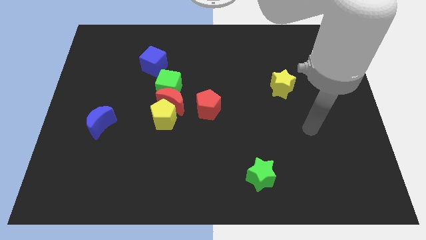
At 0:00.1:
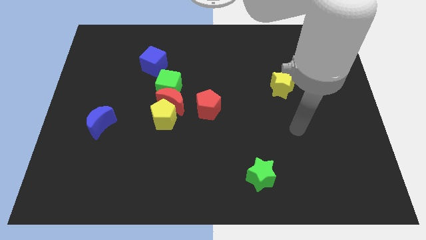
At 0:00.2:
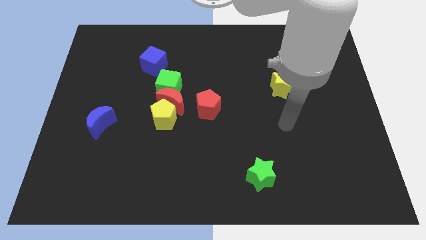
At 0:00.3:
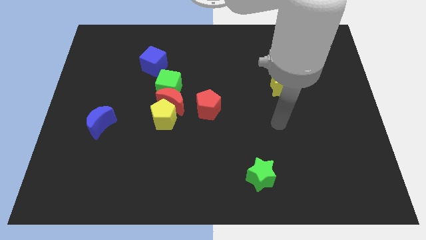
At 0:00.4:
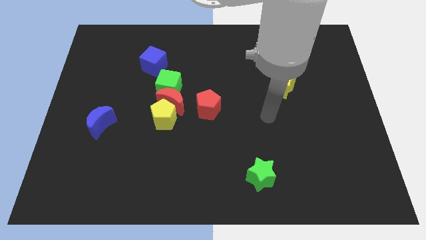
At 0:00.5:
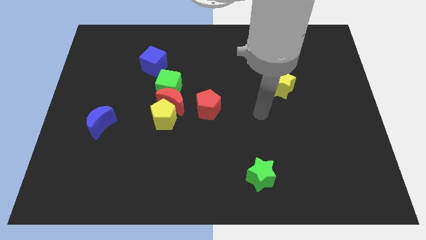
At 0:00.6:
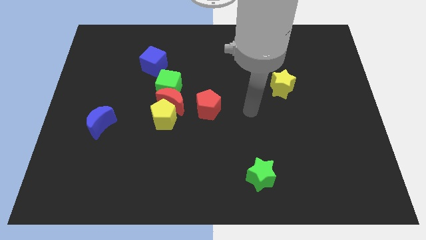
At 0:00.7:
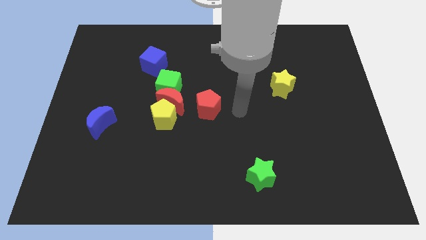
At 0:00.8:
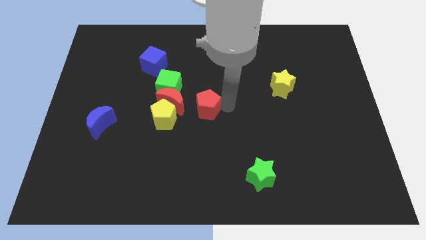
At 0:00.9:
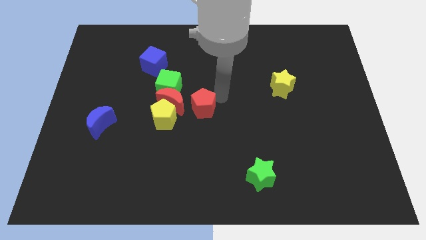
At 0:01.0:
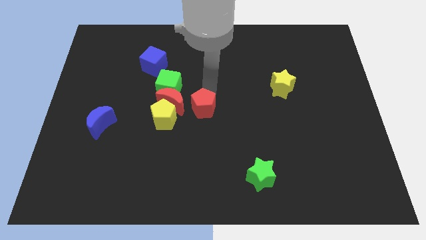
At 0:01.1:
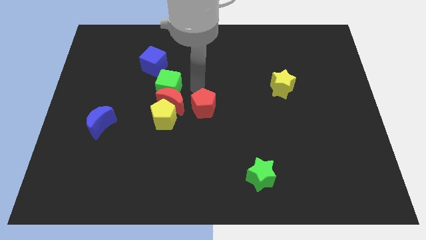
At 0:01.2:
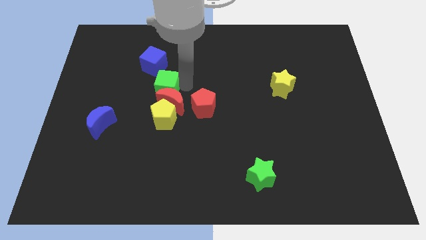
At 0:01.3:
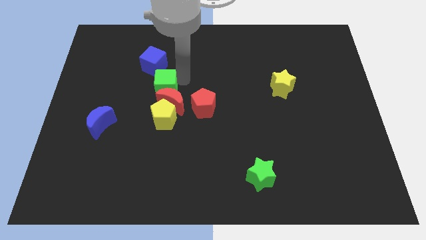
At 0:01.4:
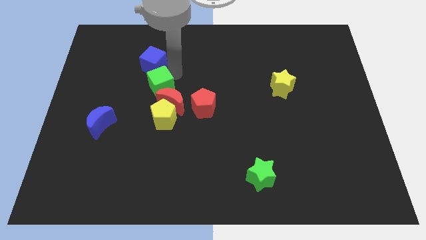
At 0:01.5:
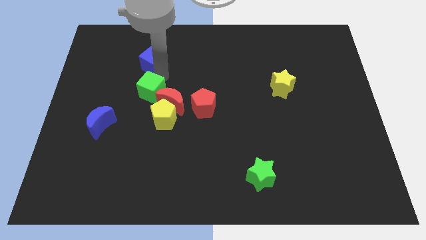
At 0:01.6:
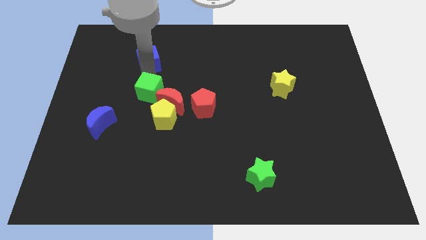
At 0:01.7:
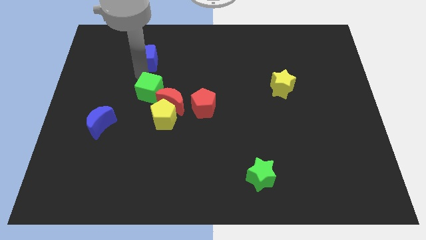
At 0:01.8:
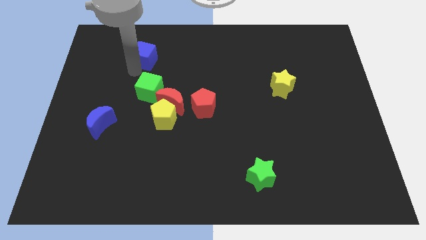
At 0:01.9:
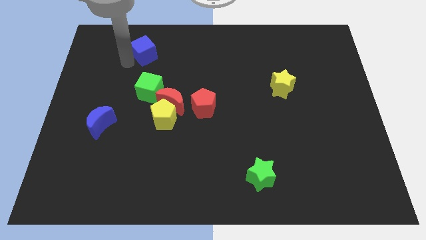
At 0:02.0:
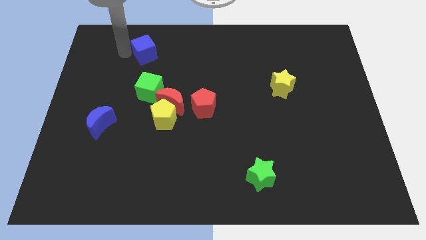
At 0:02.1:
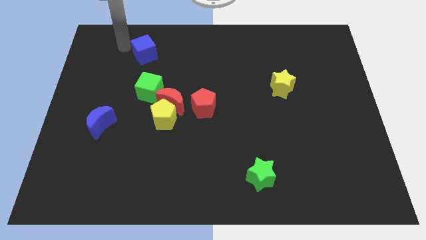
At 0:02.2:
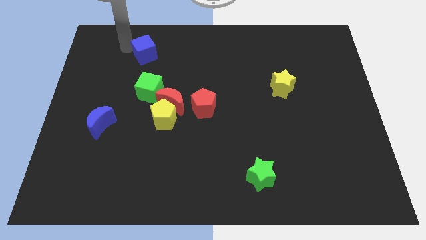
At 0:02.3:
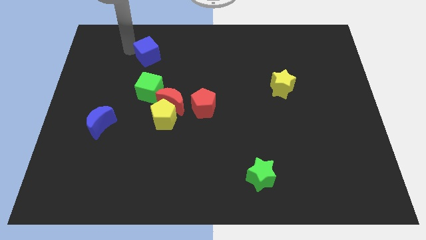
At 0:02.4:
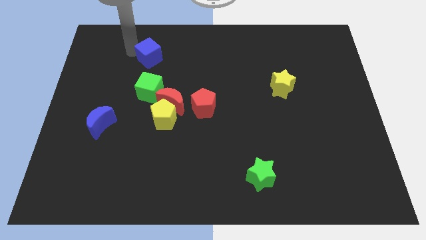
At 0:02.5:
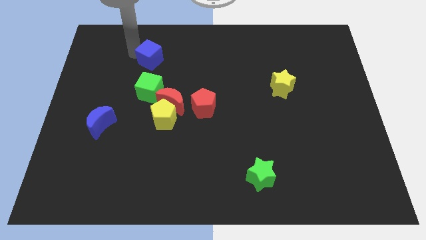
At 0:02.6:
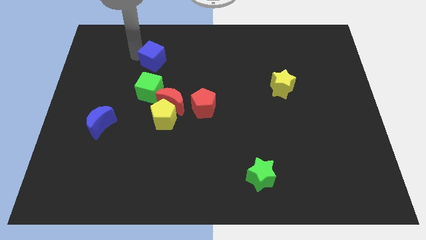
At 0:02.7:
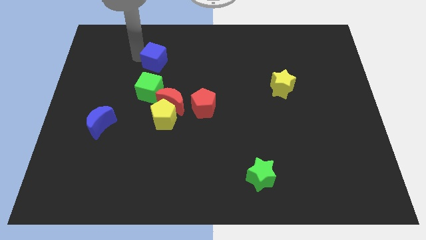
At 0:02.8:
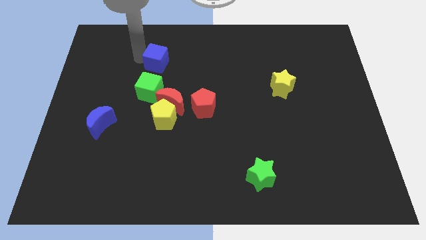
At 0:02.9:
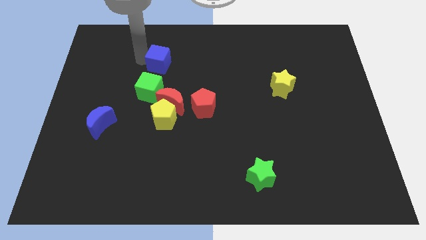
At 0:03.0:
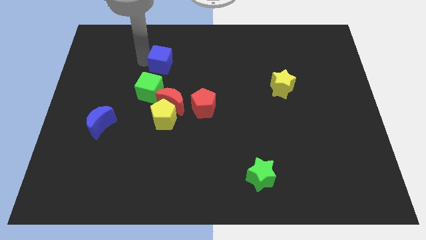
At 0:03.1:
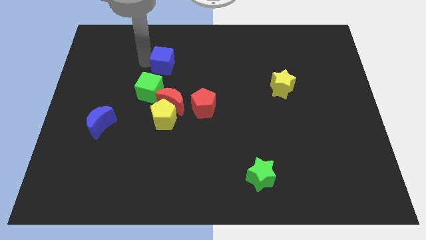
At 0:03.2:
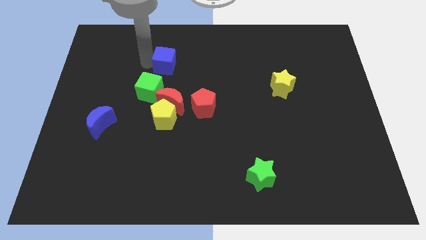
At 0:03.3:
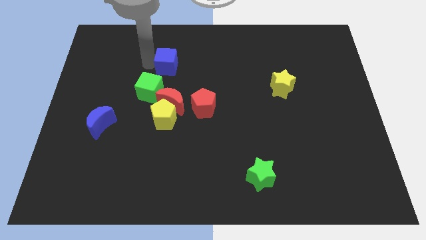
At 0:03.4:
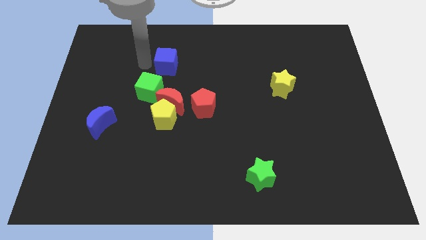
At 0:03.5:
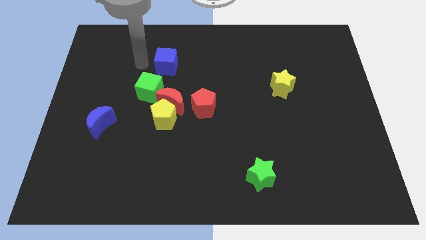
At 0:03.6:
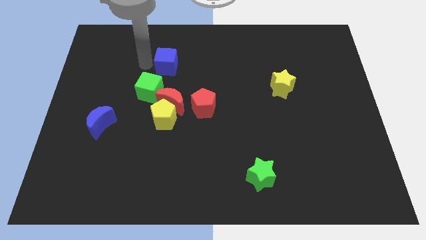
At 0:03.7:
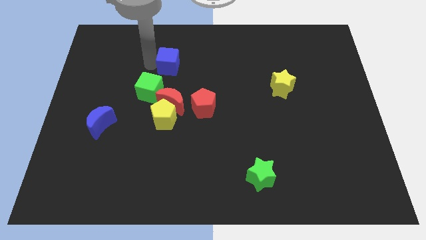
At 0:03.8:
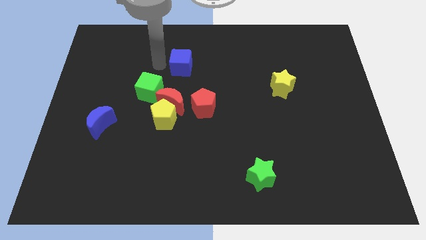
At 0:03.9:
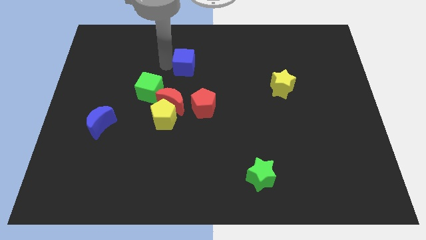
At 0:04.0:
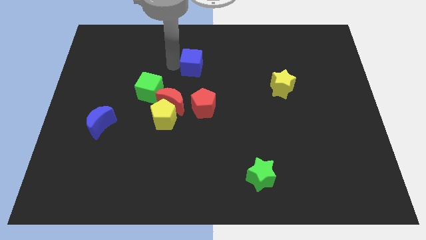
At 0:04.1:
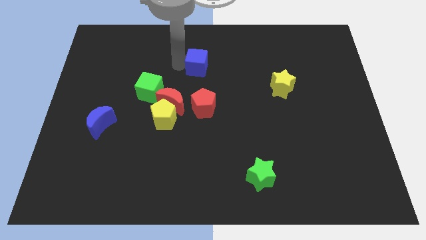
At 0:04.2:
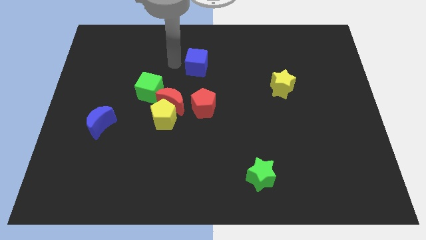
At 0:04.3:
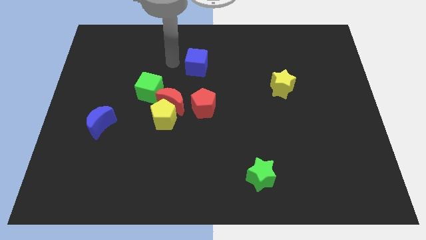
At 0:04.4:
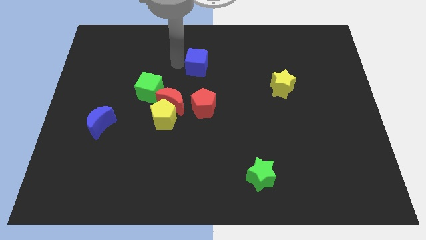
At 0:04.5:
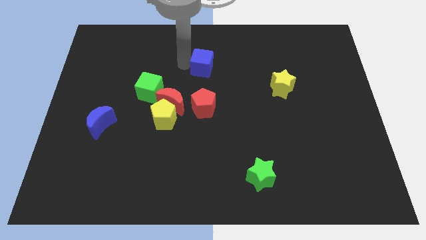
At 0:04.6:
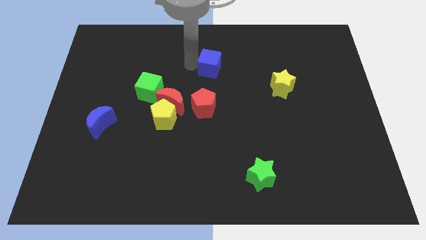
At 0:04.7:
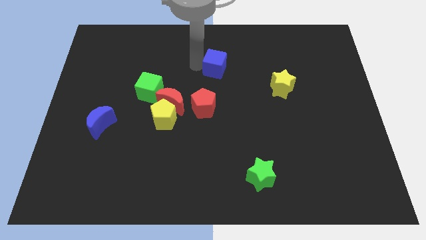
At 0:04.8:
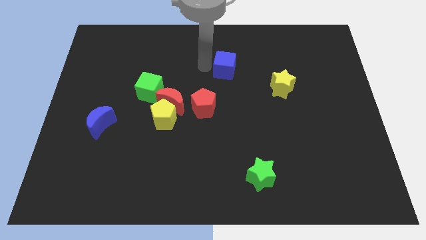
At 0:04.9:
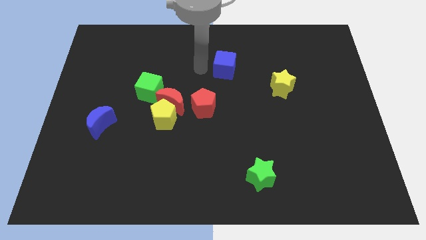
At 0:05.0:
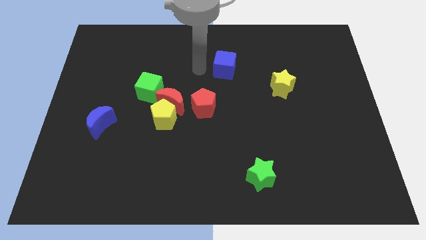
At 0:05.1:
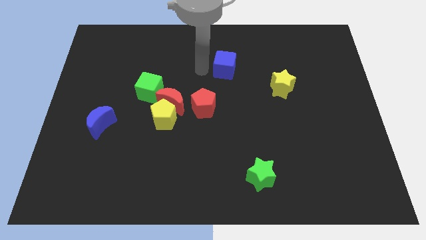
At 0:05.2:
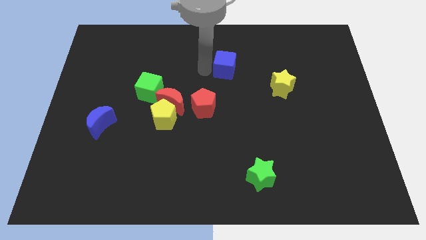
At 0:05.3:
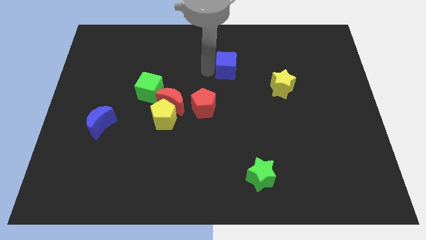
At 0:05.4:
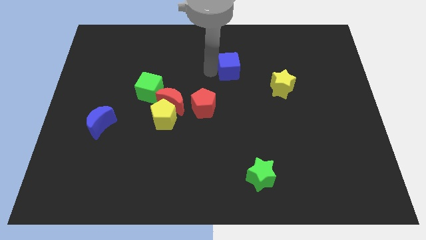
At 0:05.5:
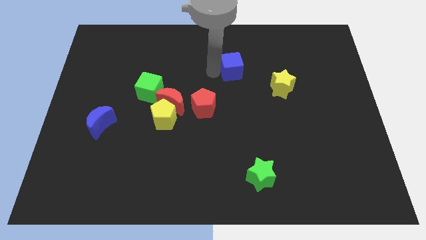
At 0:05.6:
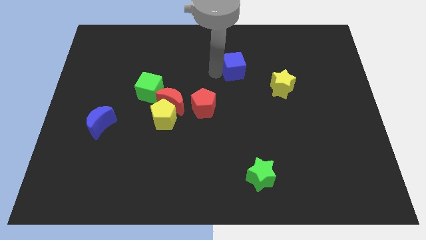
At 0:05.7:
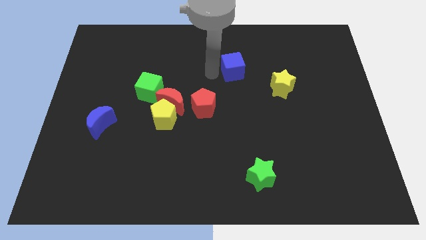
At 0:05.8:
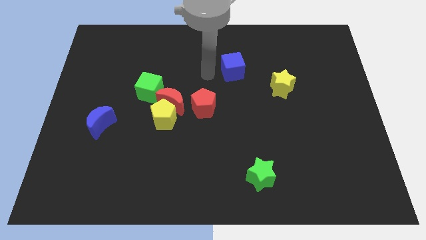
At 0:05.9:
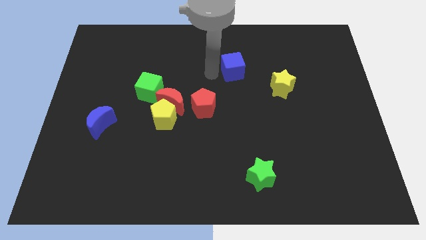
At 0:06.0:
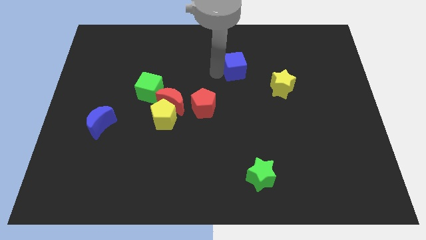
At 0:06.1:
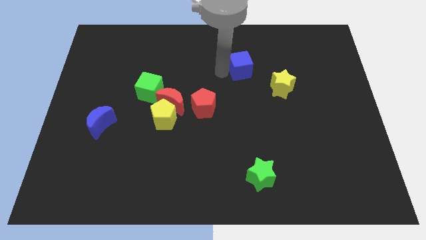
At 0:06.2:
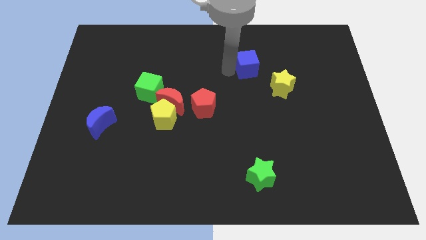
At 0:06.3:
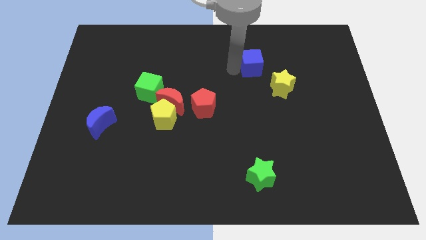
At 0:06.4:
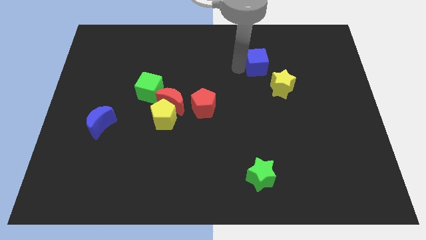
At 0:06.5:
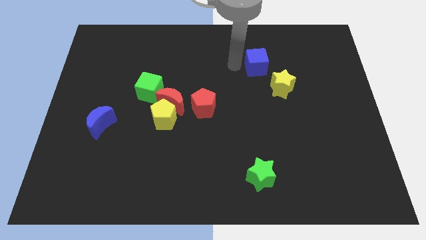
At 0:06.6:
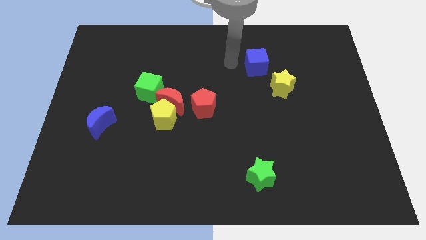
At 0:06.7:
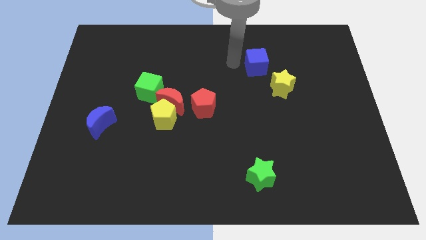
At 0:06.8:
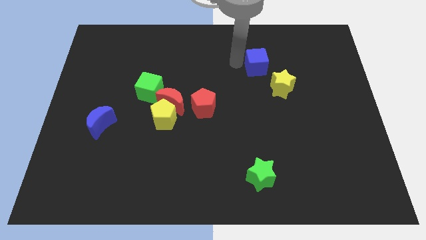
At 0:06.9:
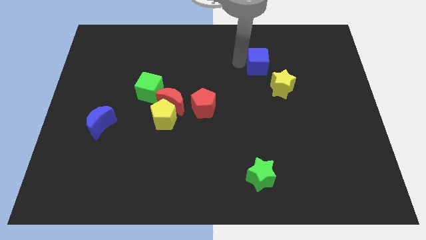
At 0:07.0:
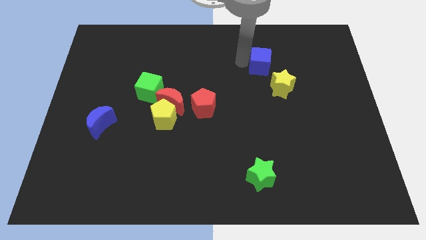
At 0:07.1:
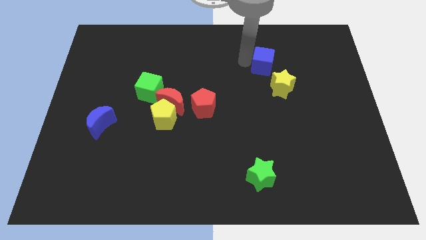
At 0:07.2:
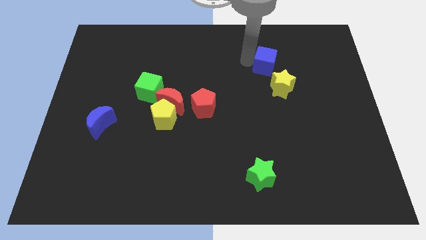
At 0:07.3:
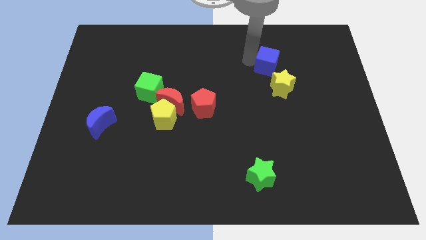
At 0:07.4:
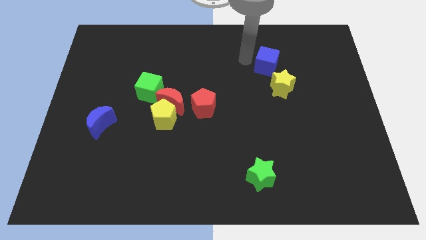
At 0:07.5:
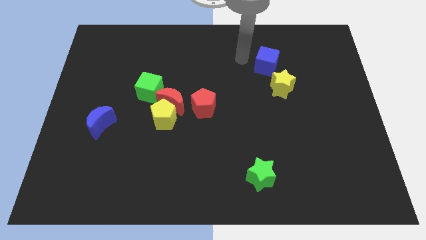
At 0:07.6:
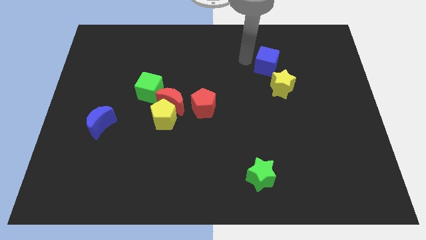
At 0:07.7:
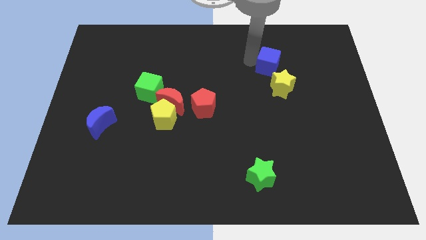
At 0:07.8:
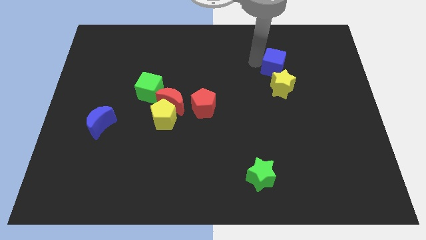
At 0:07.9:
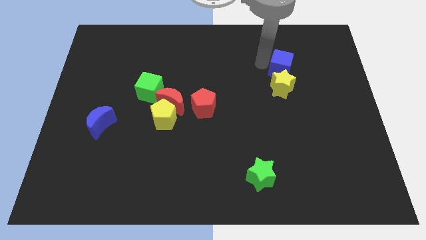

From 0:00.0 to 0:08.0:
slide the blue cube to the top right side of the yellow star
